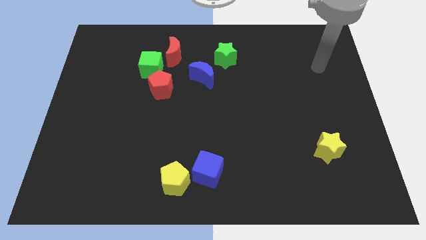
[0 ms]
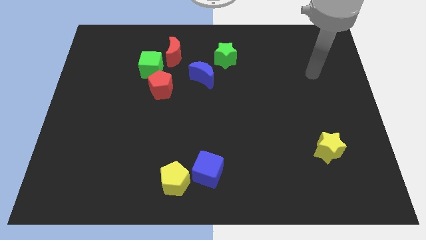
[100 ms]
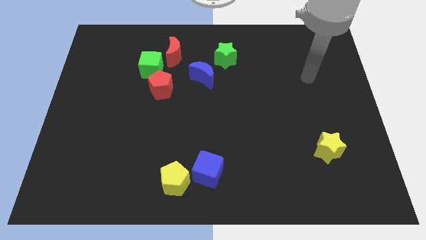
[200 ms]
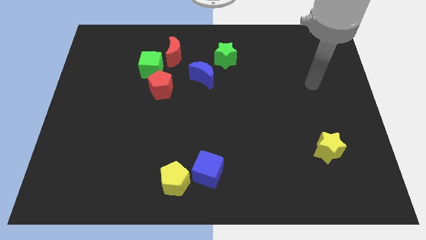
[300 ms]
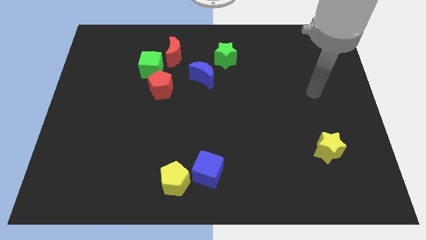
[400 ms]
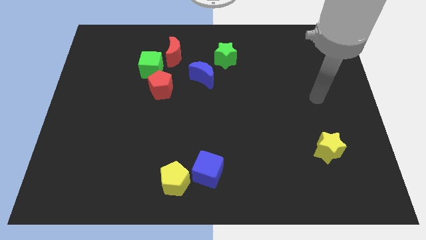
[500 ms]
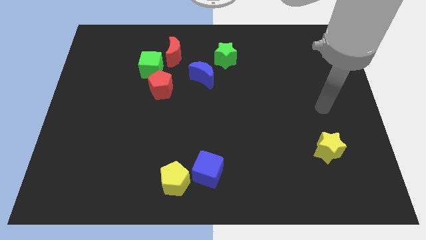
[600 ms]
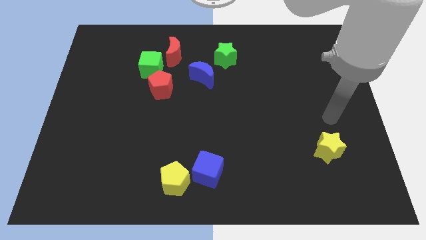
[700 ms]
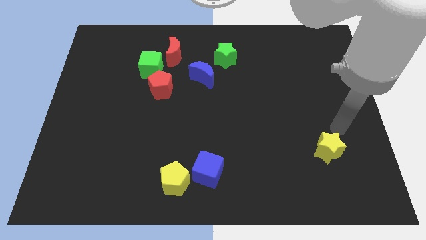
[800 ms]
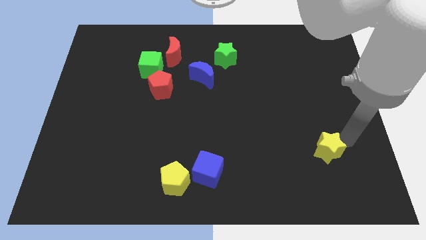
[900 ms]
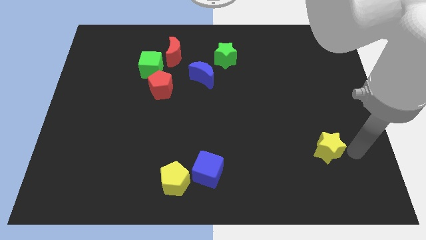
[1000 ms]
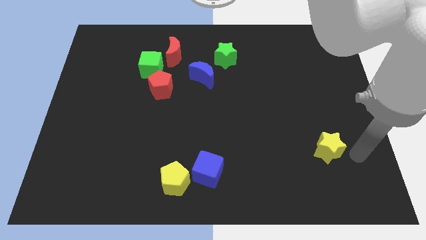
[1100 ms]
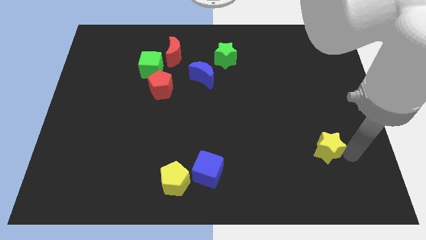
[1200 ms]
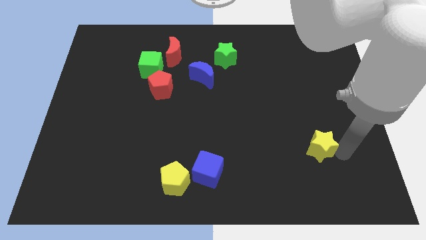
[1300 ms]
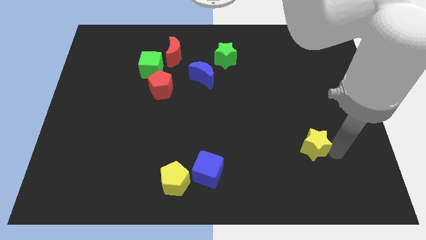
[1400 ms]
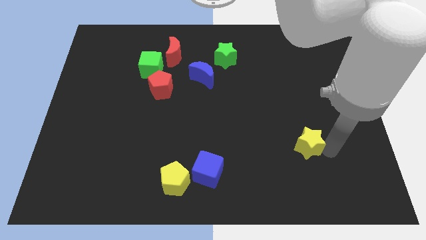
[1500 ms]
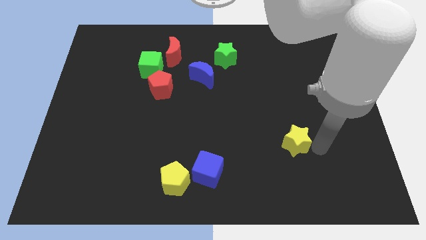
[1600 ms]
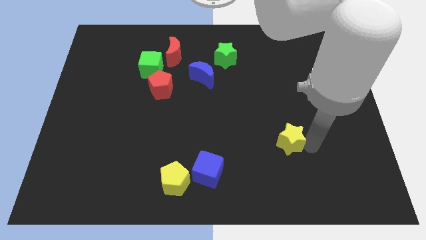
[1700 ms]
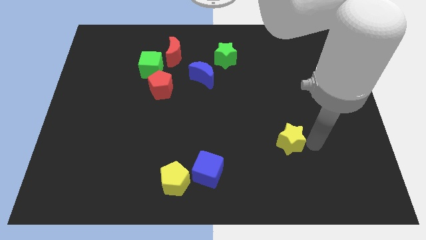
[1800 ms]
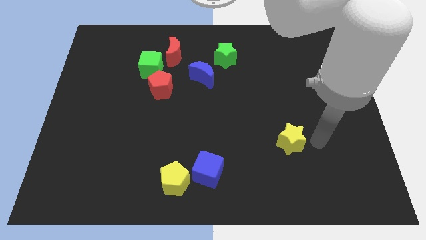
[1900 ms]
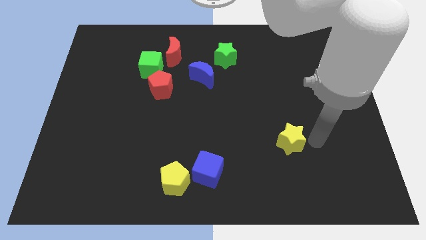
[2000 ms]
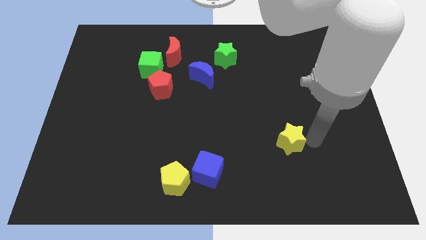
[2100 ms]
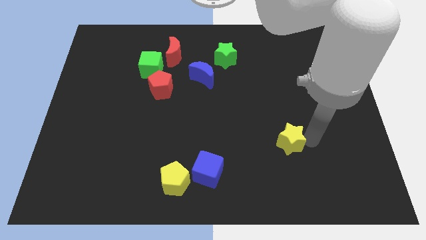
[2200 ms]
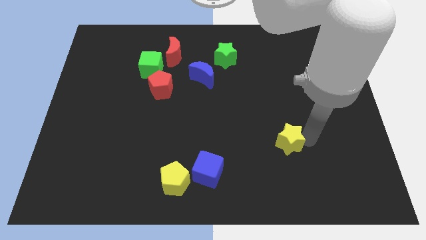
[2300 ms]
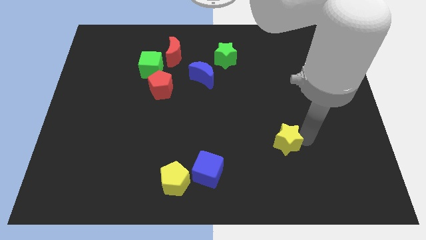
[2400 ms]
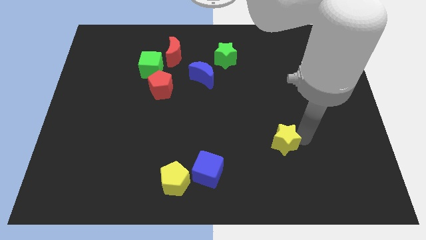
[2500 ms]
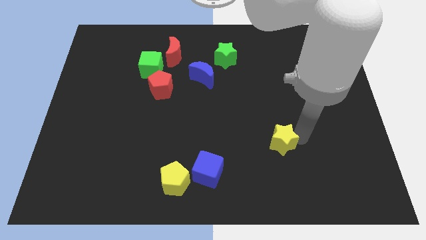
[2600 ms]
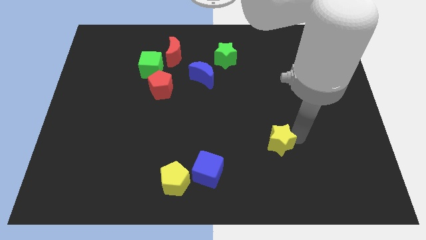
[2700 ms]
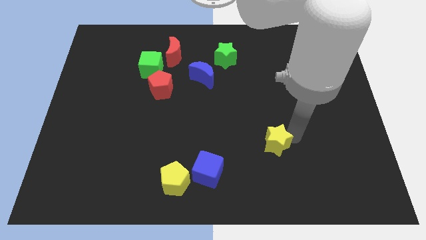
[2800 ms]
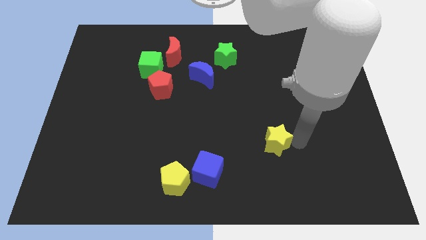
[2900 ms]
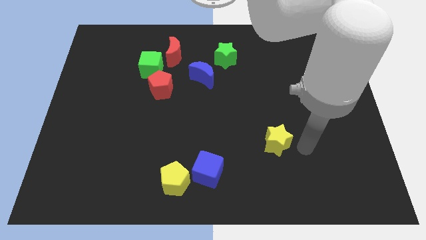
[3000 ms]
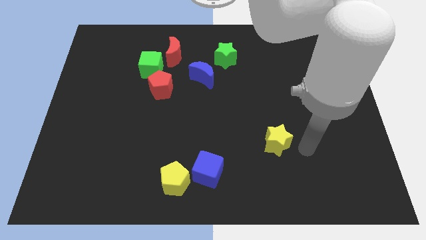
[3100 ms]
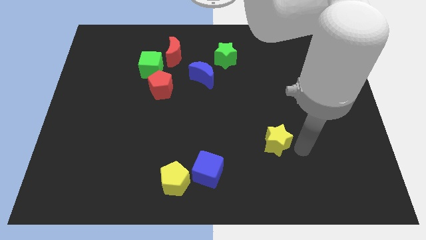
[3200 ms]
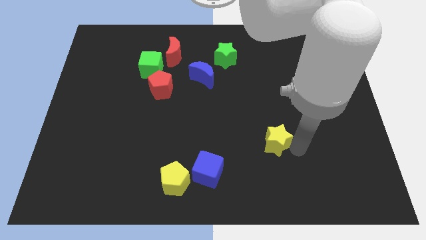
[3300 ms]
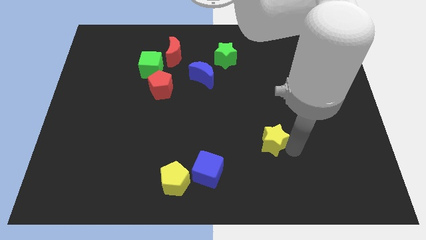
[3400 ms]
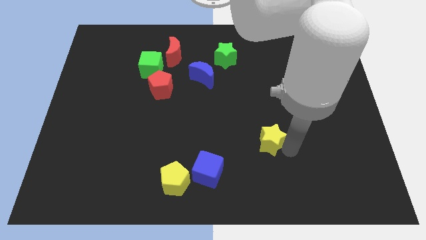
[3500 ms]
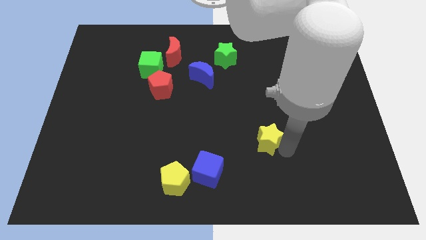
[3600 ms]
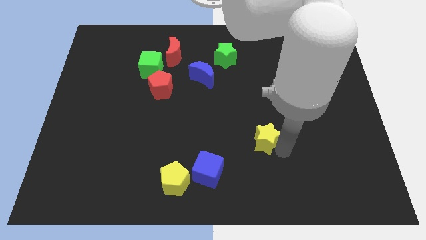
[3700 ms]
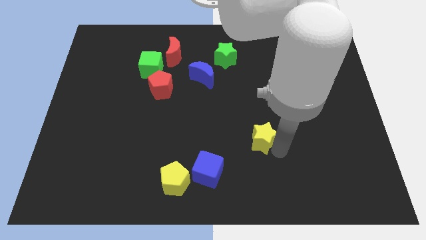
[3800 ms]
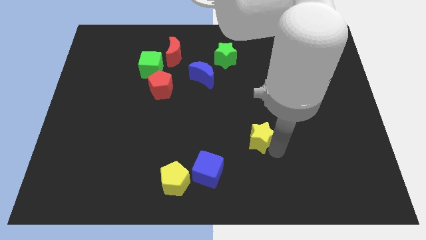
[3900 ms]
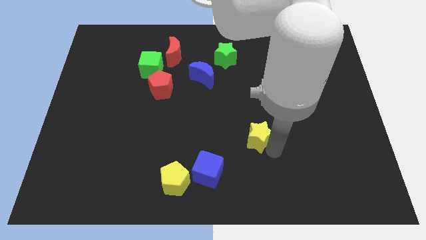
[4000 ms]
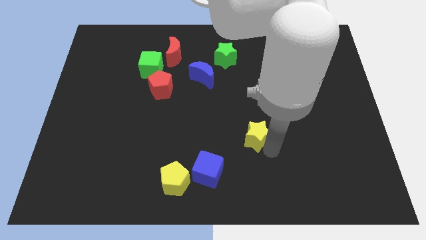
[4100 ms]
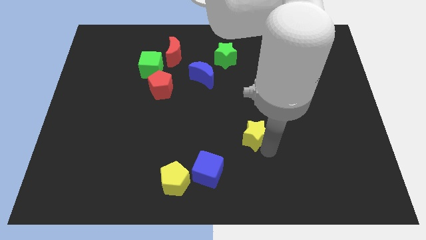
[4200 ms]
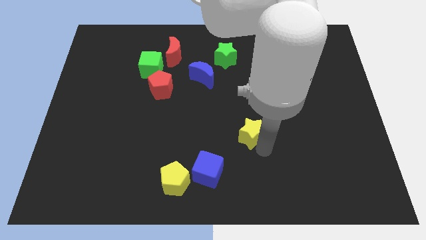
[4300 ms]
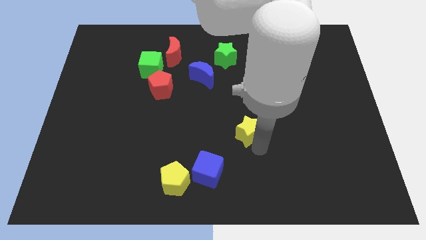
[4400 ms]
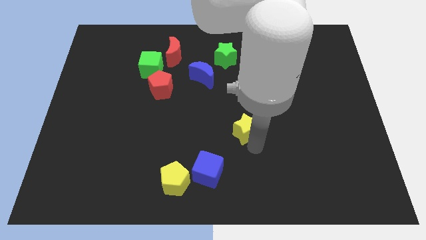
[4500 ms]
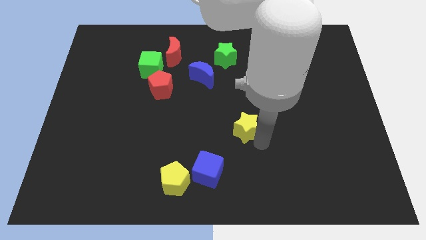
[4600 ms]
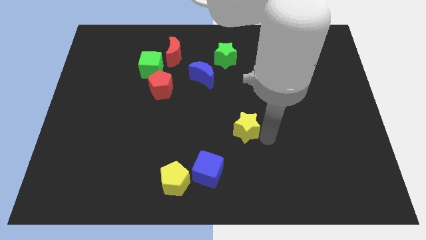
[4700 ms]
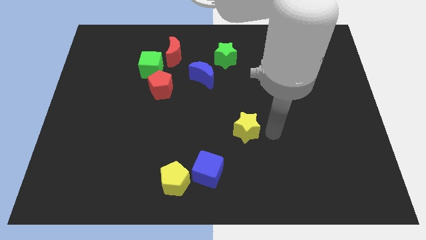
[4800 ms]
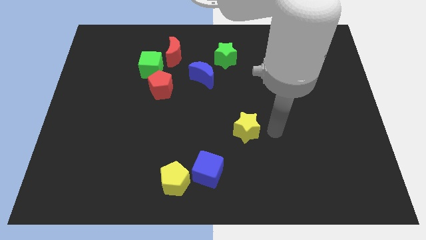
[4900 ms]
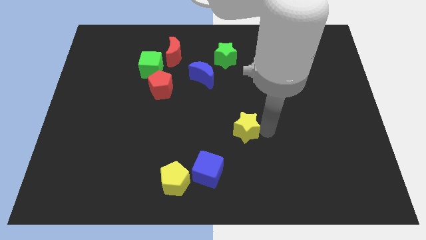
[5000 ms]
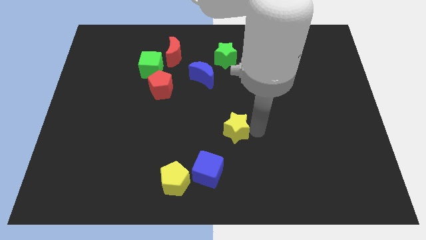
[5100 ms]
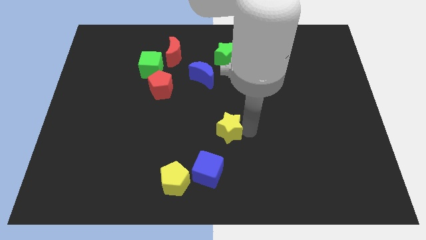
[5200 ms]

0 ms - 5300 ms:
push the yellow star above the blue cube

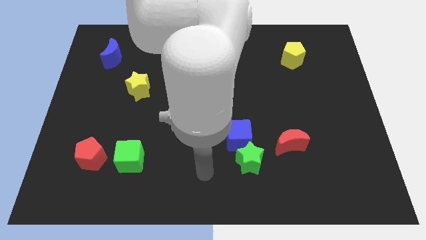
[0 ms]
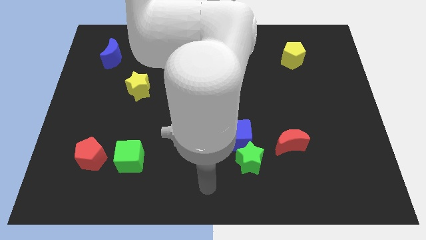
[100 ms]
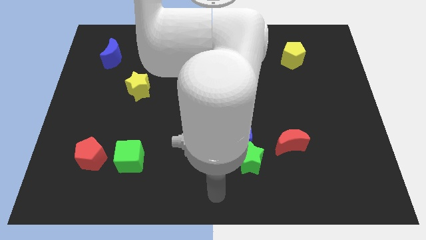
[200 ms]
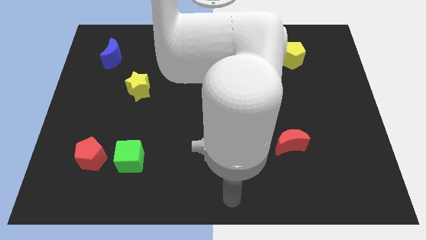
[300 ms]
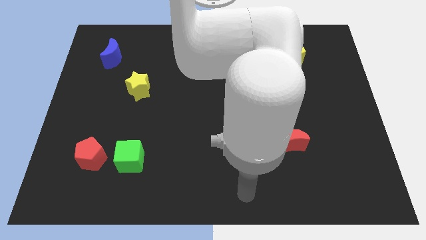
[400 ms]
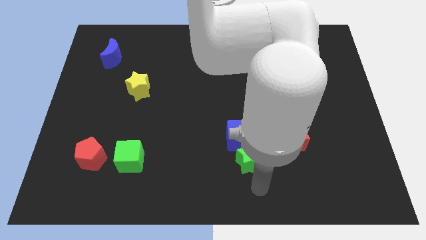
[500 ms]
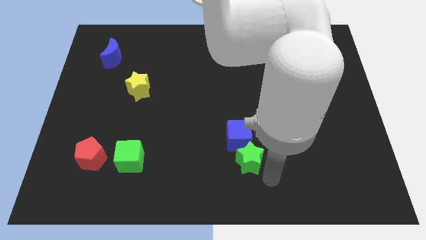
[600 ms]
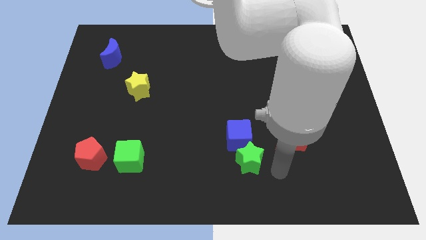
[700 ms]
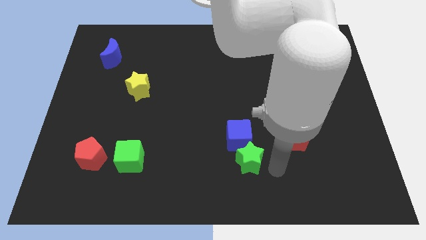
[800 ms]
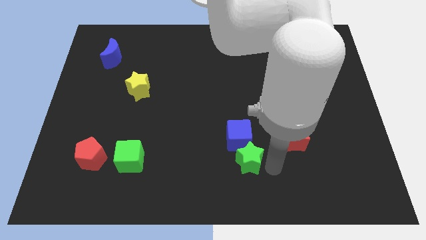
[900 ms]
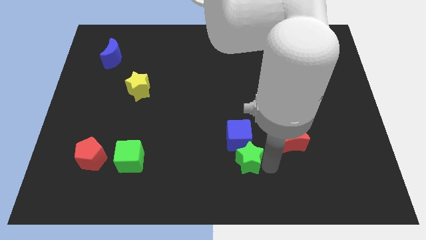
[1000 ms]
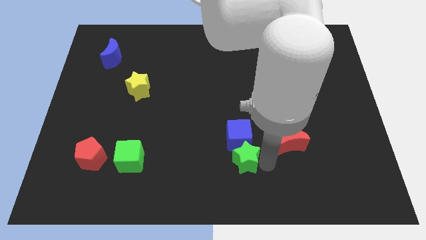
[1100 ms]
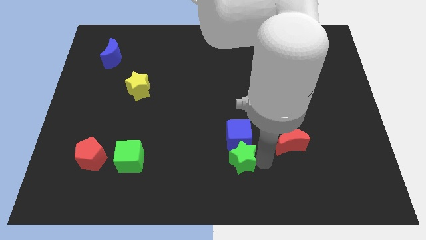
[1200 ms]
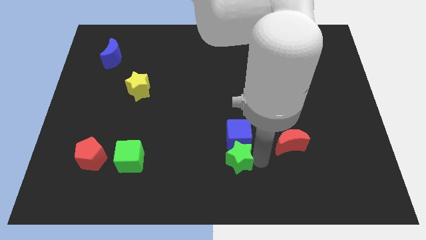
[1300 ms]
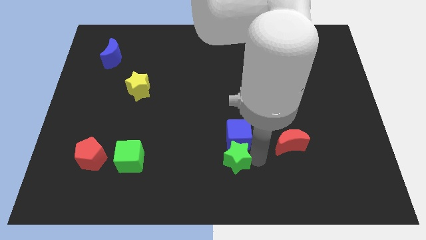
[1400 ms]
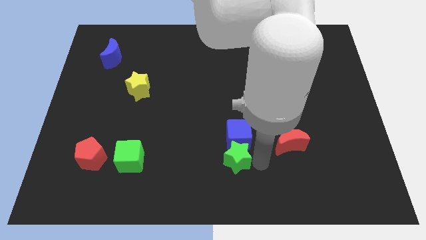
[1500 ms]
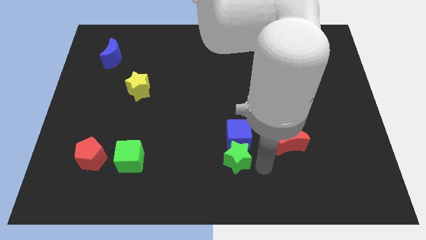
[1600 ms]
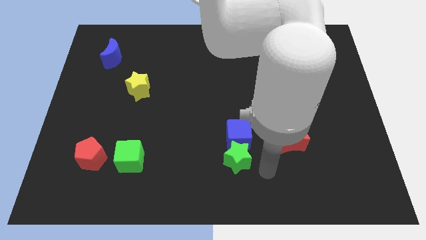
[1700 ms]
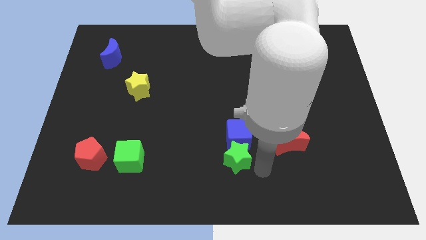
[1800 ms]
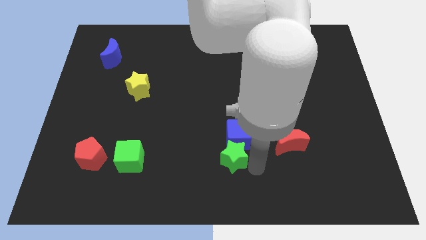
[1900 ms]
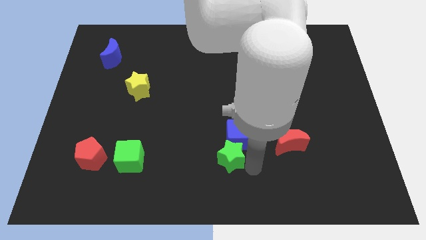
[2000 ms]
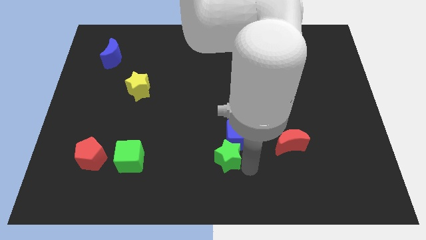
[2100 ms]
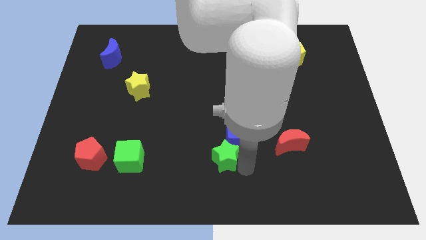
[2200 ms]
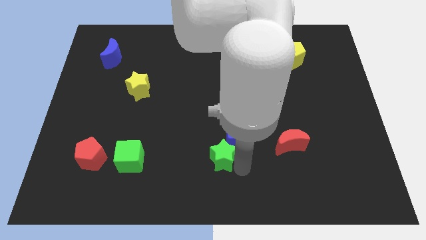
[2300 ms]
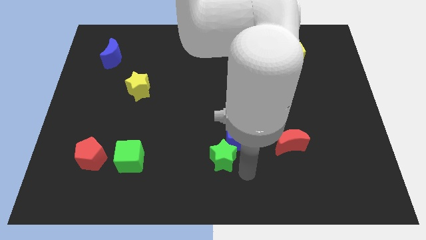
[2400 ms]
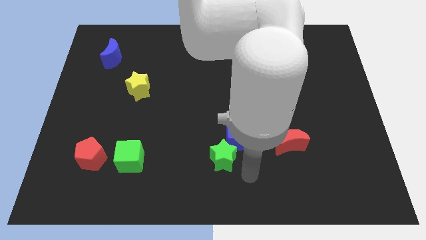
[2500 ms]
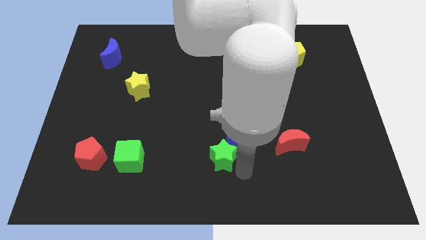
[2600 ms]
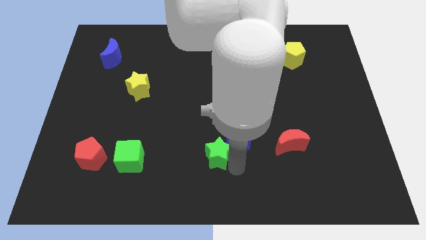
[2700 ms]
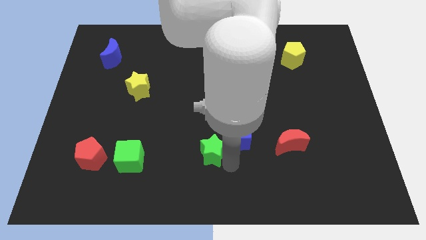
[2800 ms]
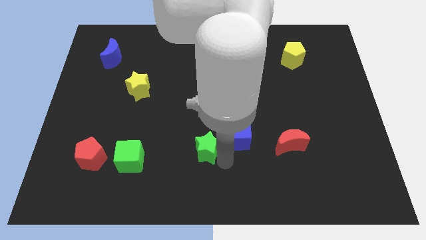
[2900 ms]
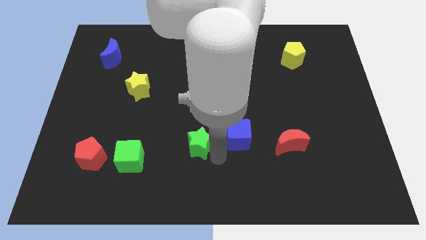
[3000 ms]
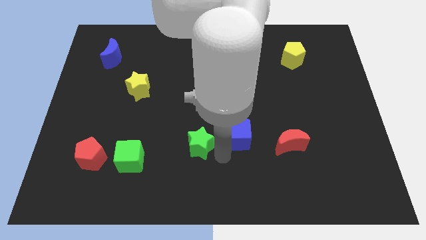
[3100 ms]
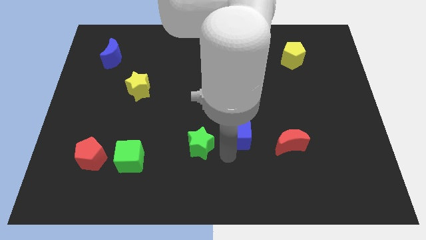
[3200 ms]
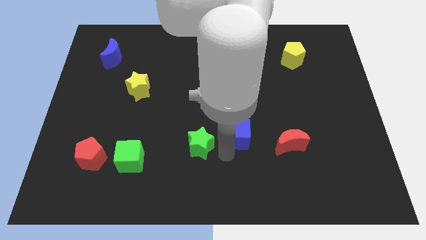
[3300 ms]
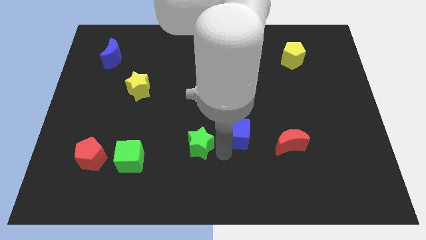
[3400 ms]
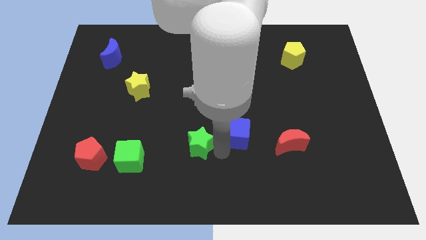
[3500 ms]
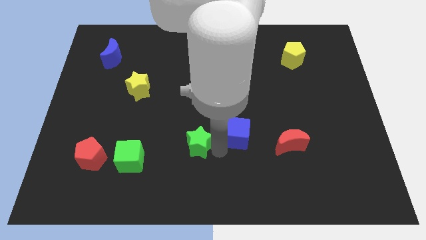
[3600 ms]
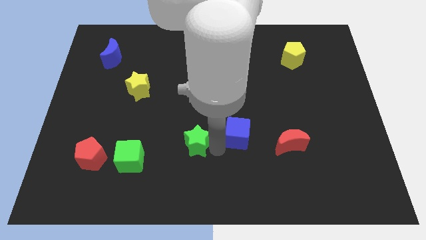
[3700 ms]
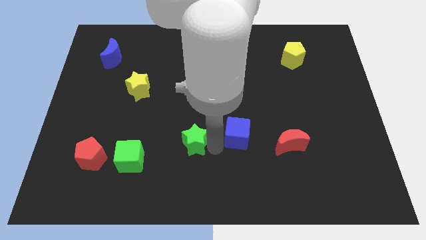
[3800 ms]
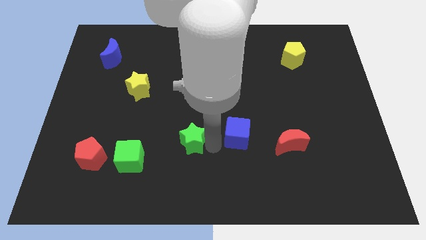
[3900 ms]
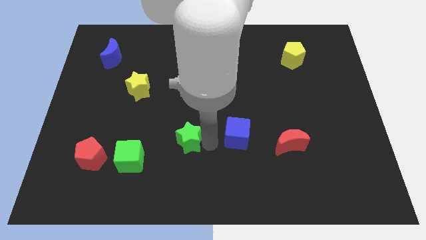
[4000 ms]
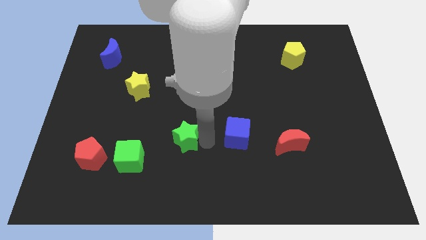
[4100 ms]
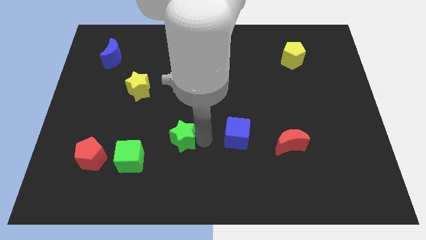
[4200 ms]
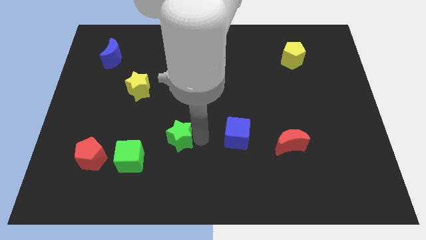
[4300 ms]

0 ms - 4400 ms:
put the green star diagonally up and to the right of the green cube
